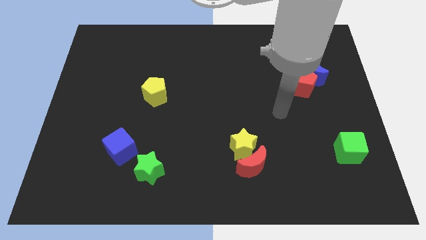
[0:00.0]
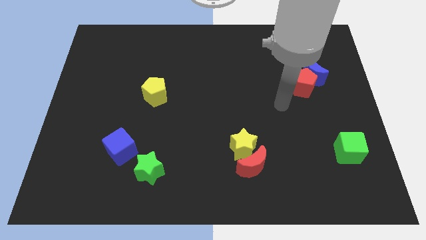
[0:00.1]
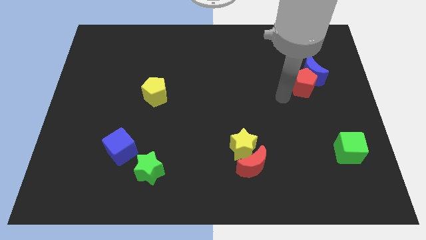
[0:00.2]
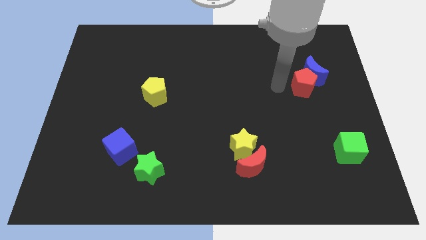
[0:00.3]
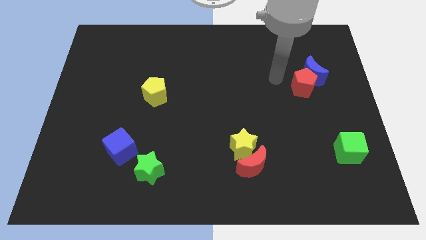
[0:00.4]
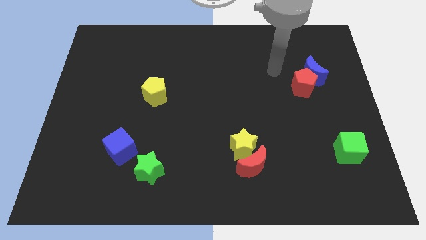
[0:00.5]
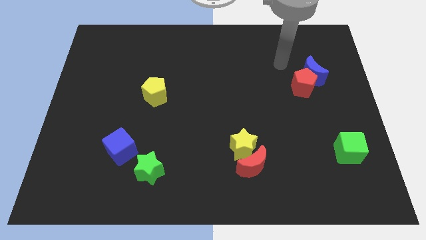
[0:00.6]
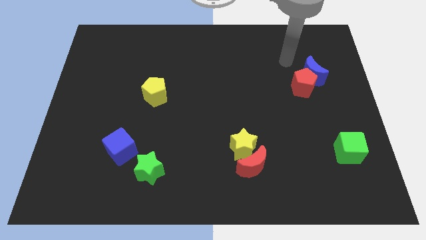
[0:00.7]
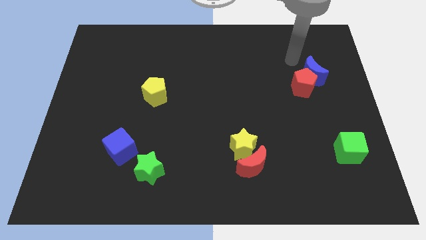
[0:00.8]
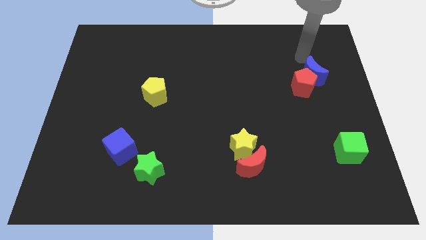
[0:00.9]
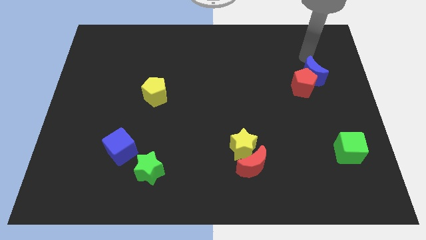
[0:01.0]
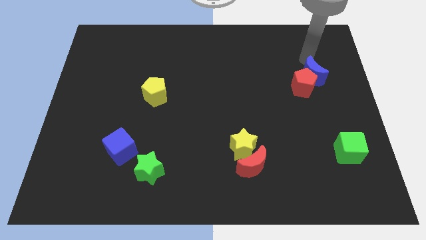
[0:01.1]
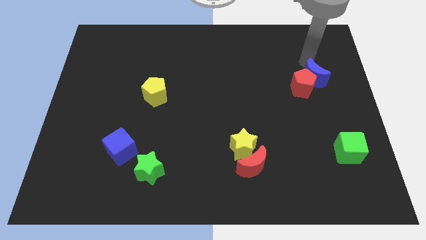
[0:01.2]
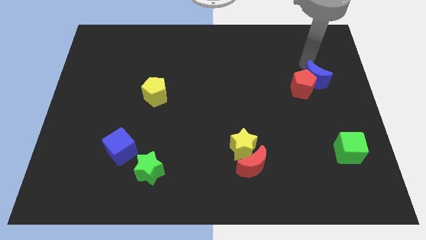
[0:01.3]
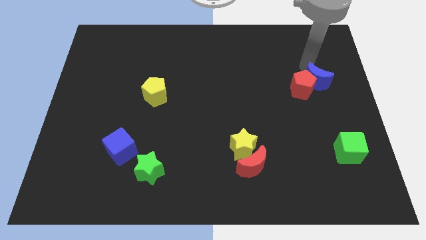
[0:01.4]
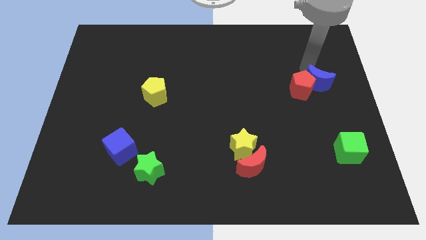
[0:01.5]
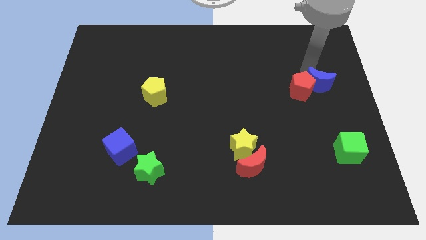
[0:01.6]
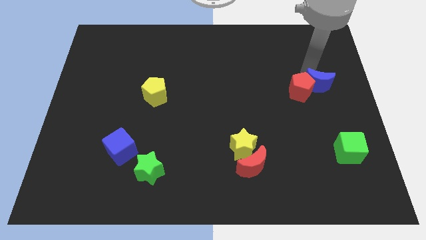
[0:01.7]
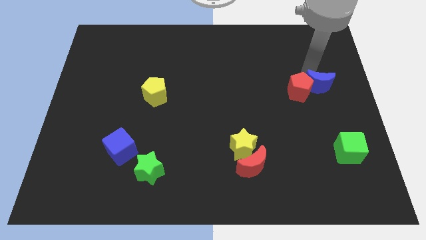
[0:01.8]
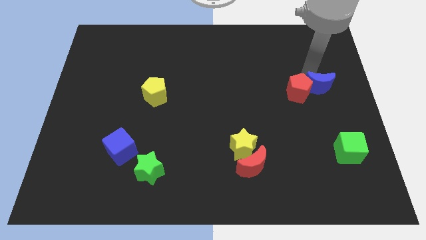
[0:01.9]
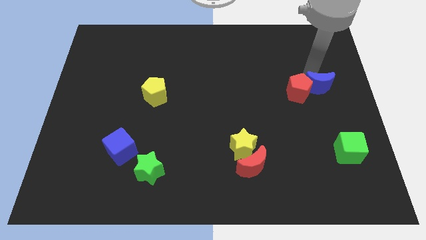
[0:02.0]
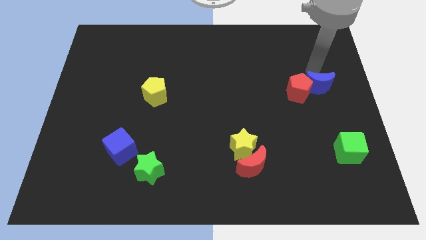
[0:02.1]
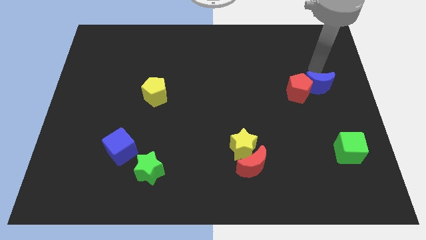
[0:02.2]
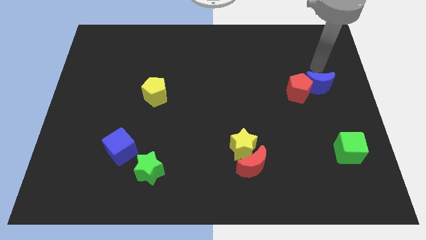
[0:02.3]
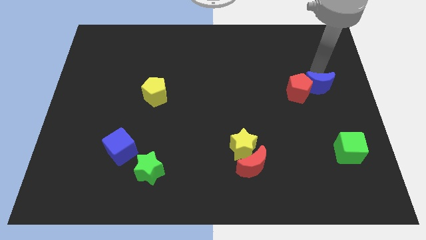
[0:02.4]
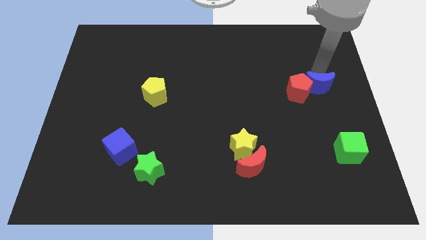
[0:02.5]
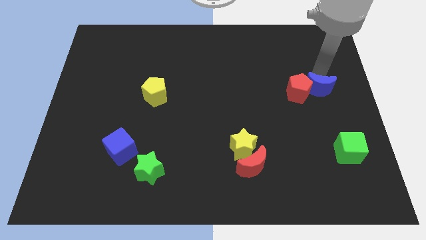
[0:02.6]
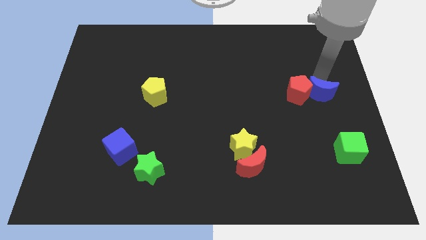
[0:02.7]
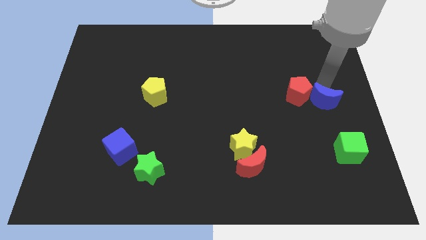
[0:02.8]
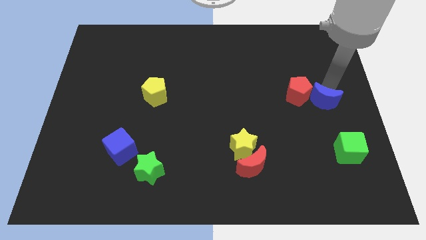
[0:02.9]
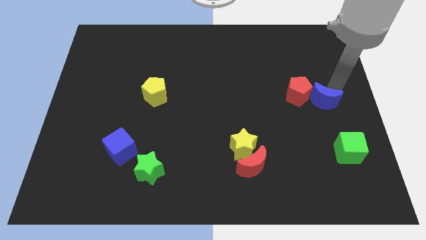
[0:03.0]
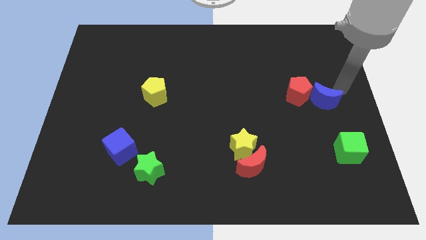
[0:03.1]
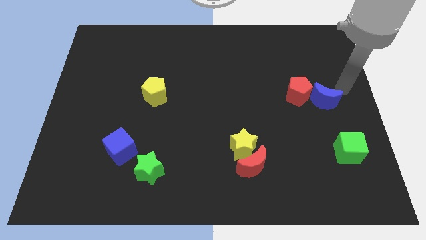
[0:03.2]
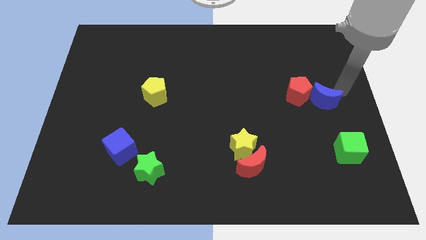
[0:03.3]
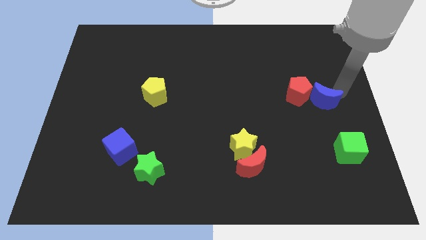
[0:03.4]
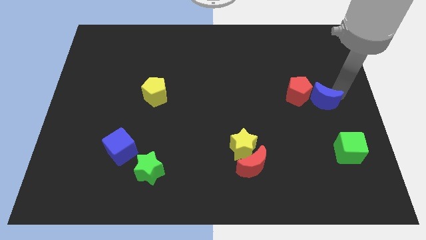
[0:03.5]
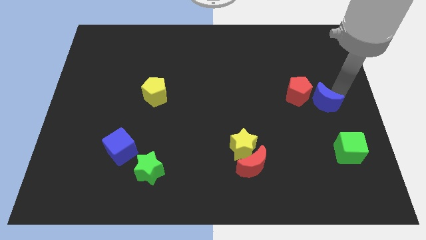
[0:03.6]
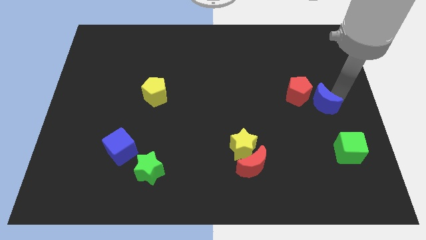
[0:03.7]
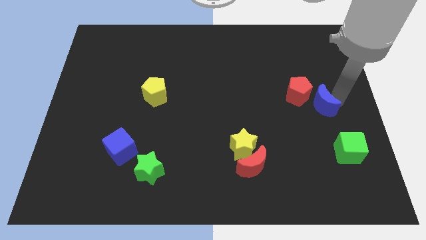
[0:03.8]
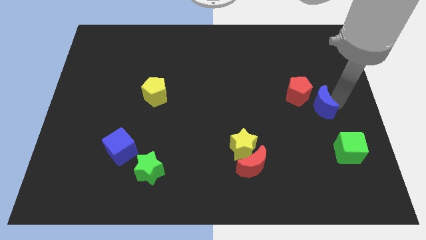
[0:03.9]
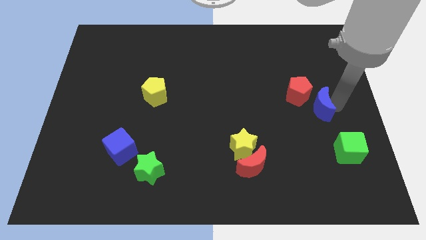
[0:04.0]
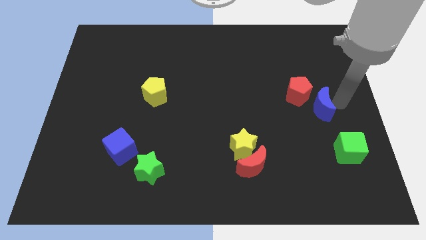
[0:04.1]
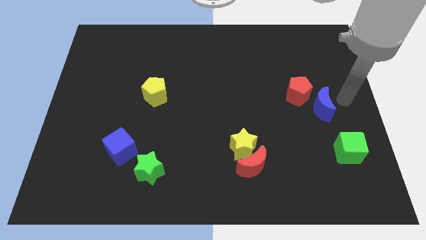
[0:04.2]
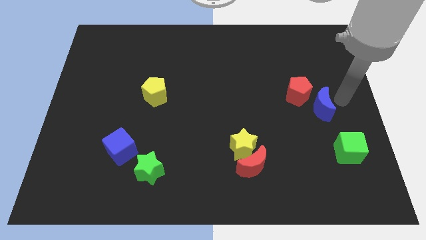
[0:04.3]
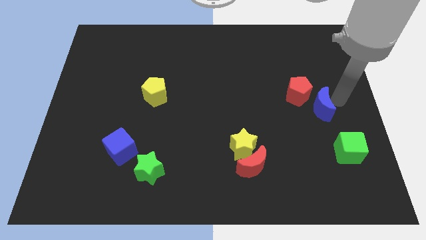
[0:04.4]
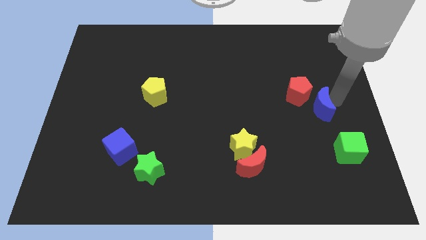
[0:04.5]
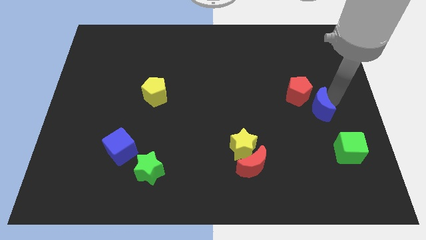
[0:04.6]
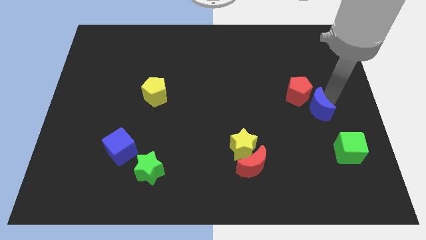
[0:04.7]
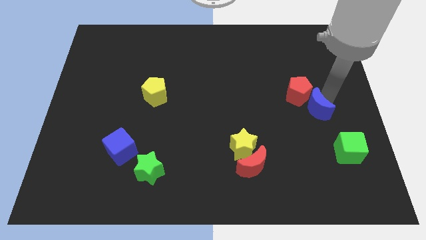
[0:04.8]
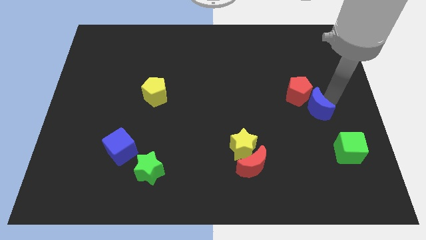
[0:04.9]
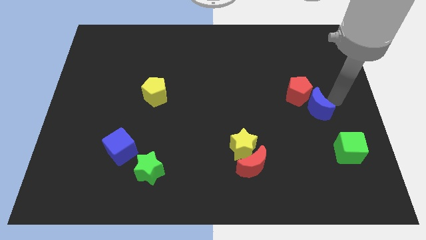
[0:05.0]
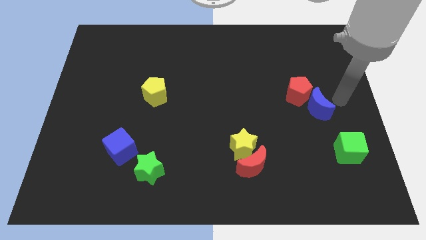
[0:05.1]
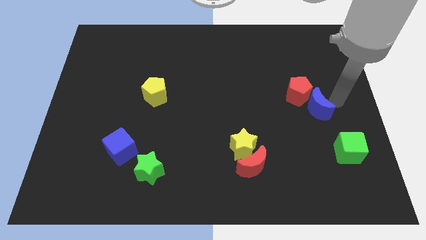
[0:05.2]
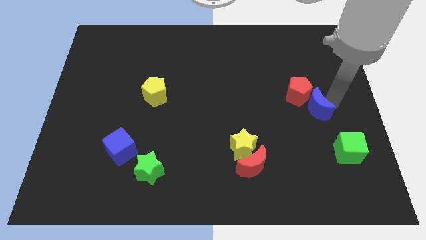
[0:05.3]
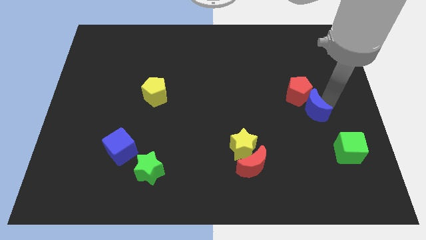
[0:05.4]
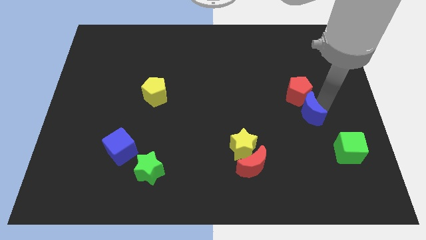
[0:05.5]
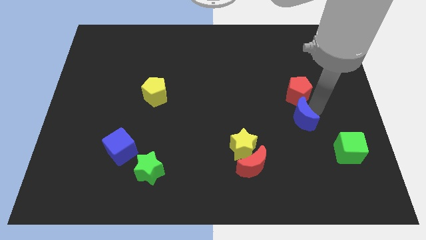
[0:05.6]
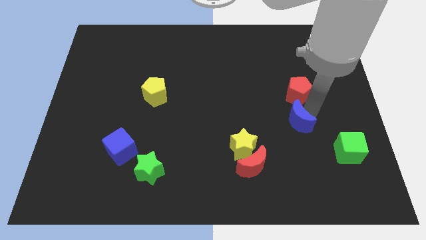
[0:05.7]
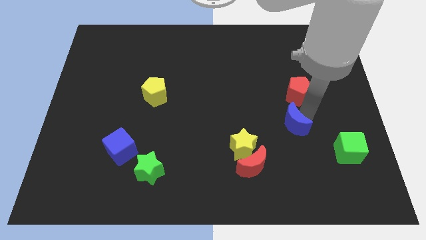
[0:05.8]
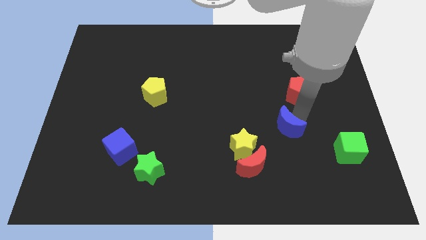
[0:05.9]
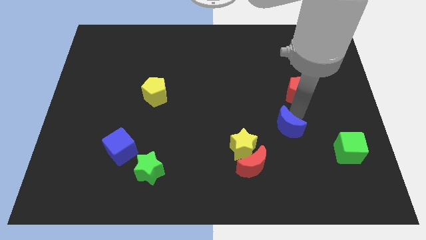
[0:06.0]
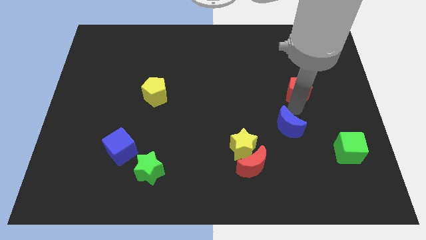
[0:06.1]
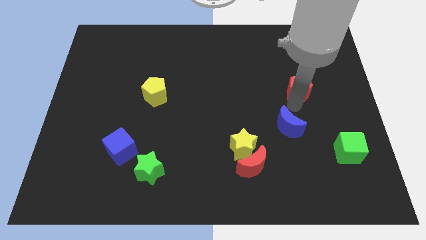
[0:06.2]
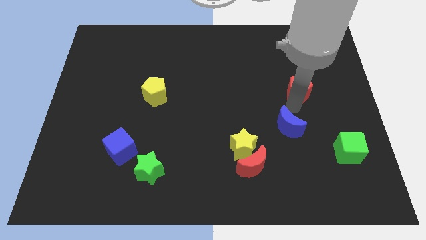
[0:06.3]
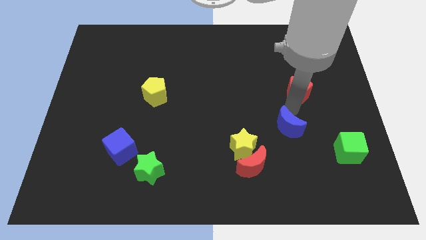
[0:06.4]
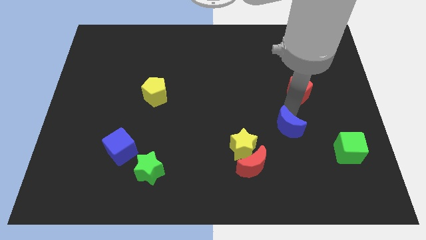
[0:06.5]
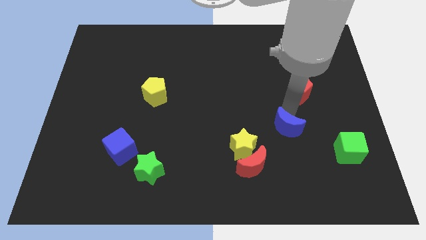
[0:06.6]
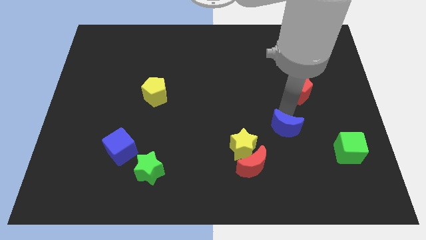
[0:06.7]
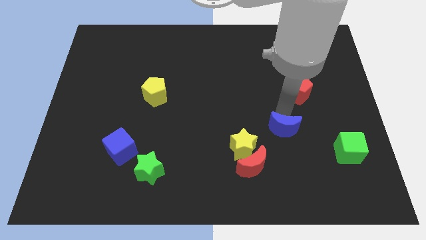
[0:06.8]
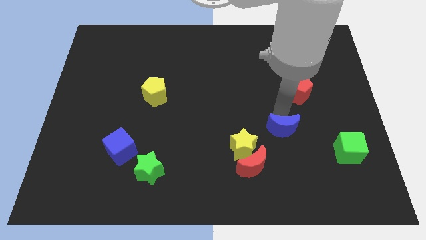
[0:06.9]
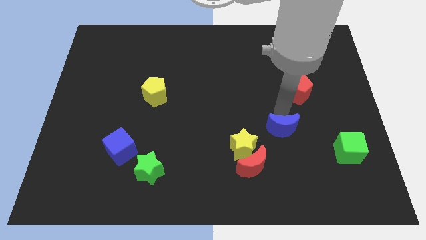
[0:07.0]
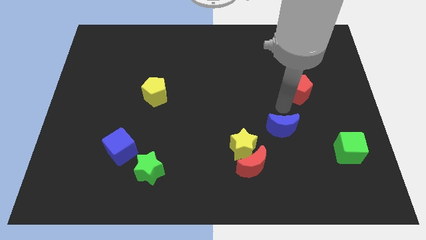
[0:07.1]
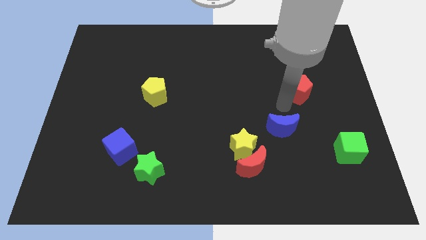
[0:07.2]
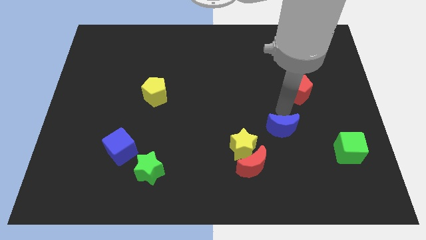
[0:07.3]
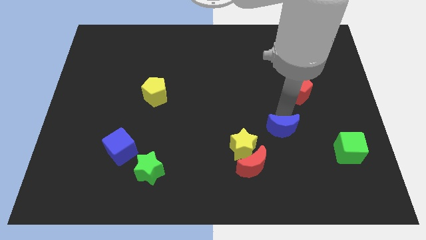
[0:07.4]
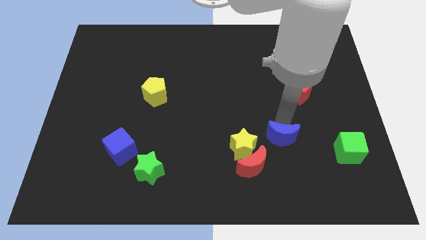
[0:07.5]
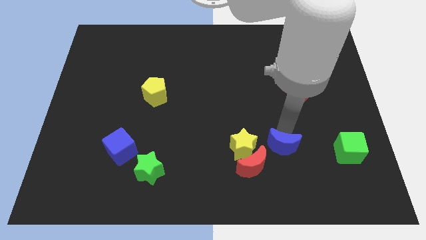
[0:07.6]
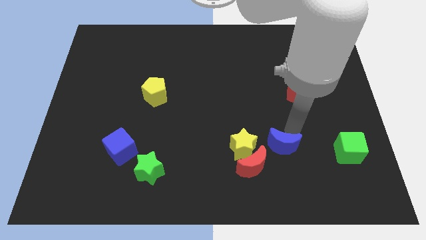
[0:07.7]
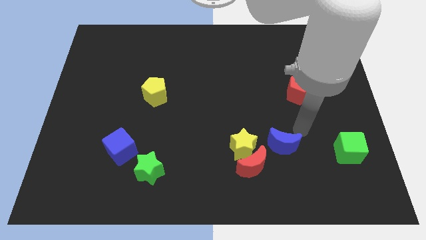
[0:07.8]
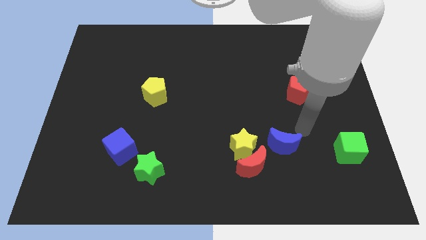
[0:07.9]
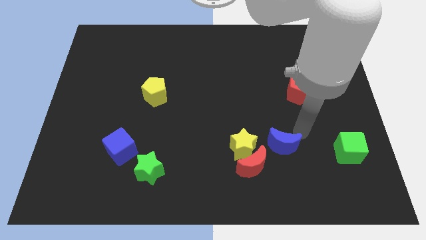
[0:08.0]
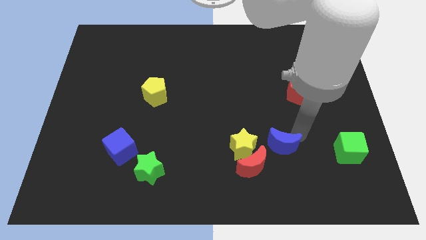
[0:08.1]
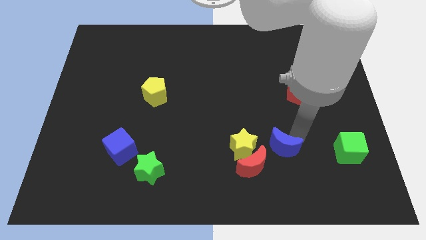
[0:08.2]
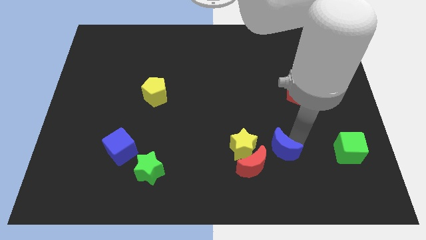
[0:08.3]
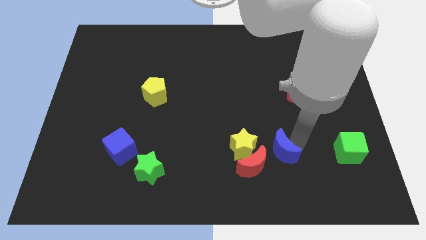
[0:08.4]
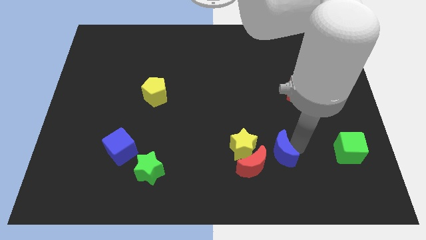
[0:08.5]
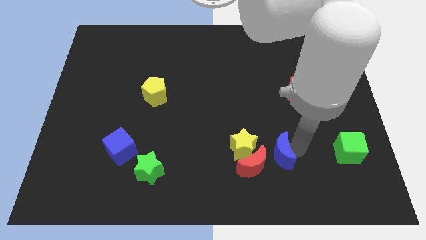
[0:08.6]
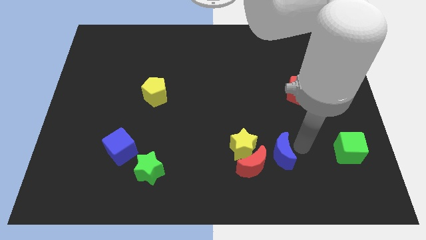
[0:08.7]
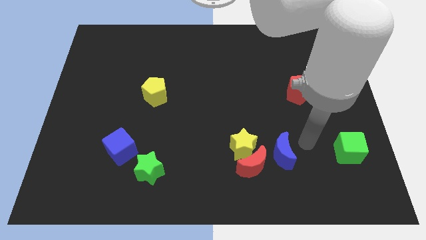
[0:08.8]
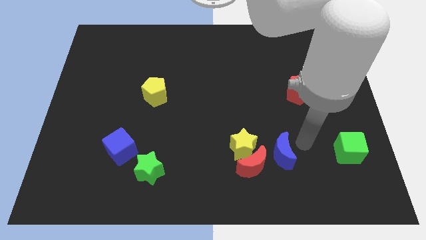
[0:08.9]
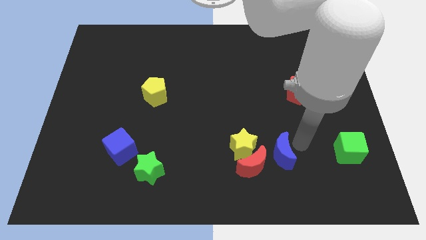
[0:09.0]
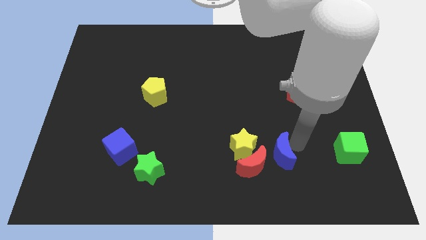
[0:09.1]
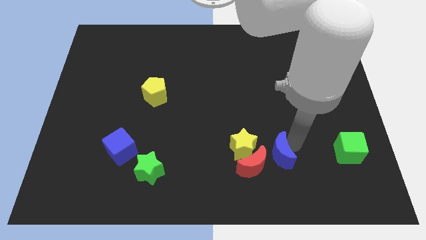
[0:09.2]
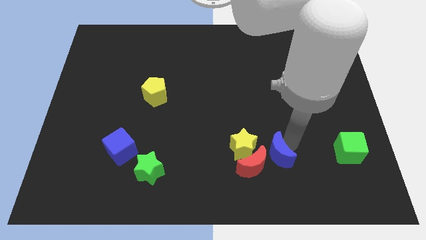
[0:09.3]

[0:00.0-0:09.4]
move the blue moon close to the red moon
